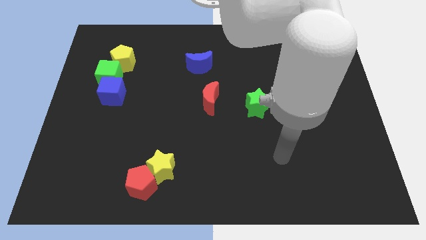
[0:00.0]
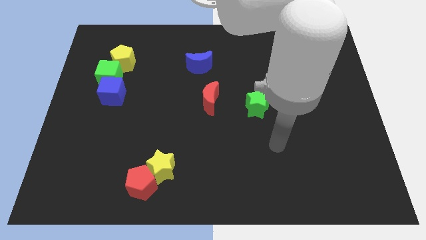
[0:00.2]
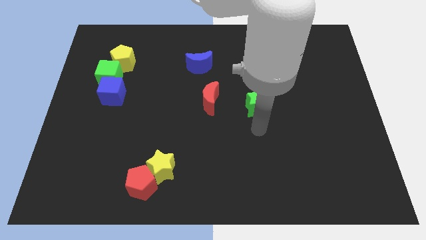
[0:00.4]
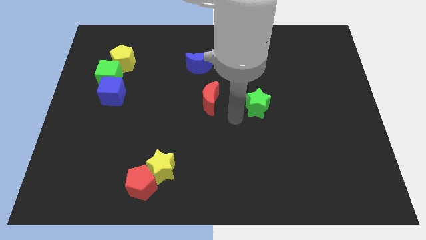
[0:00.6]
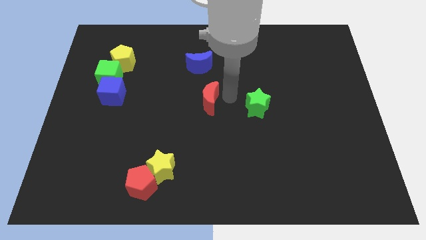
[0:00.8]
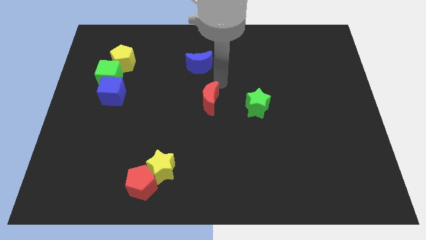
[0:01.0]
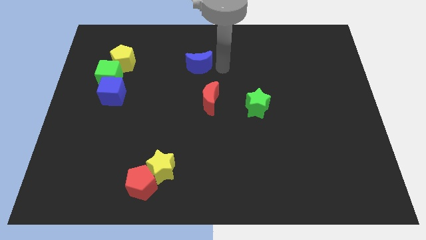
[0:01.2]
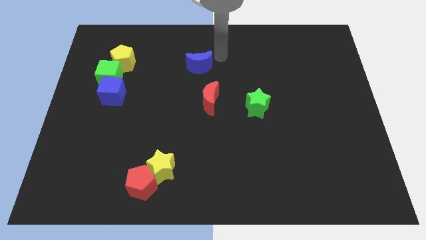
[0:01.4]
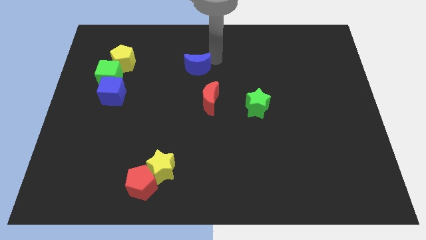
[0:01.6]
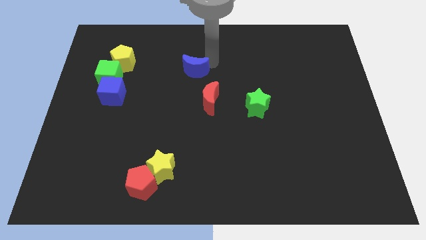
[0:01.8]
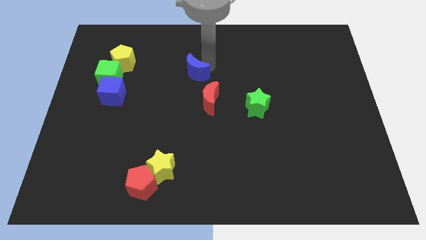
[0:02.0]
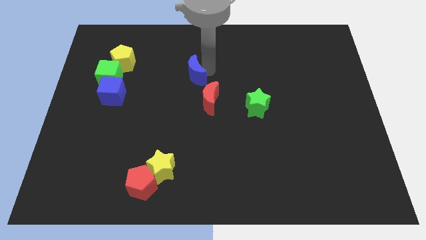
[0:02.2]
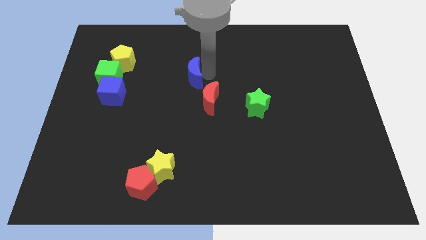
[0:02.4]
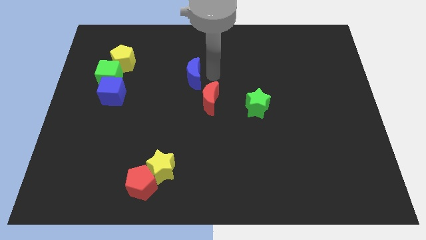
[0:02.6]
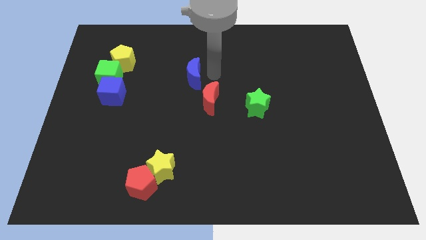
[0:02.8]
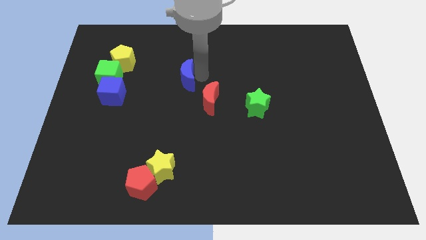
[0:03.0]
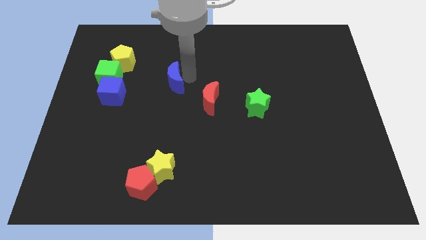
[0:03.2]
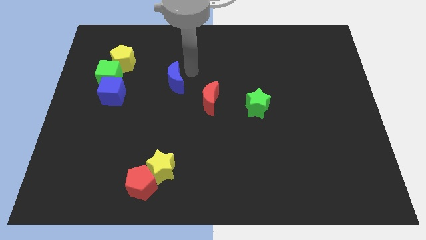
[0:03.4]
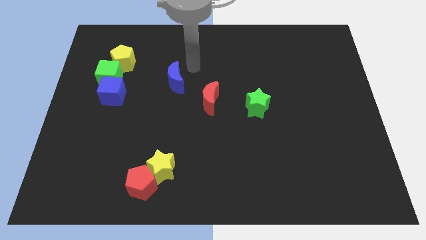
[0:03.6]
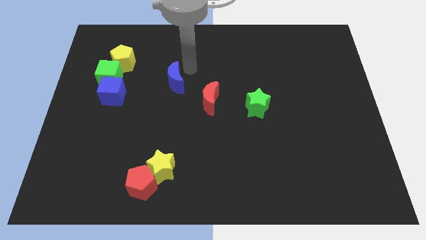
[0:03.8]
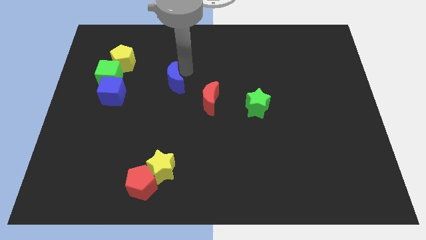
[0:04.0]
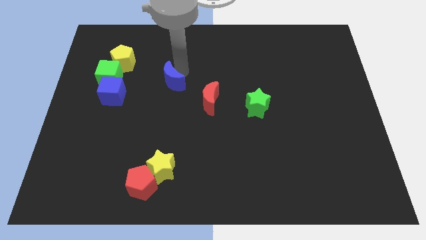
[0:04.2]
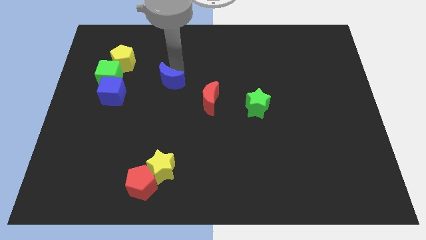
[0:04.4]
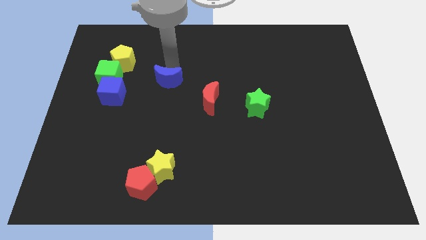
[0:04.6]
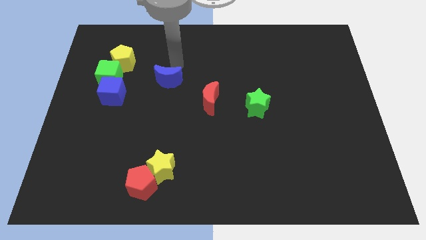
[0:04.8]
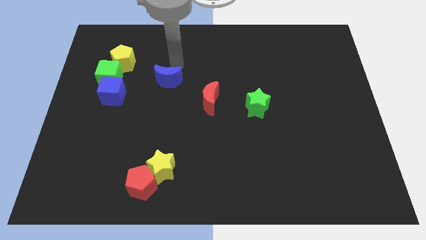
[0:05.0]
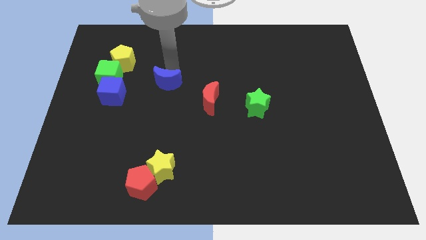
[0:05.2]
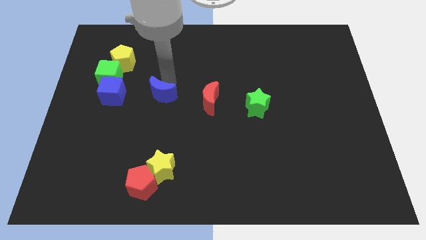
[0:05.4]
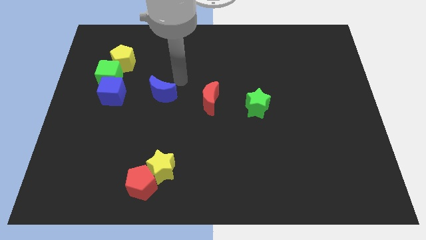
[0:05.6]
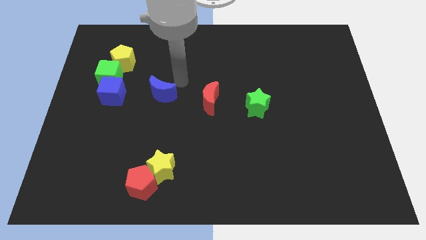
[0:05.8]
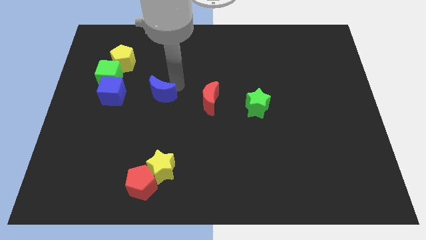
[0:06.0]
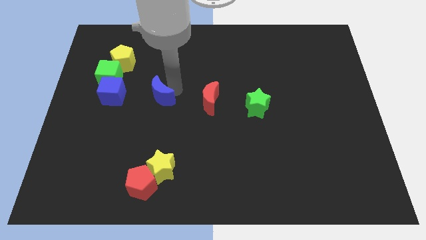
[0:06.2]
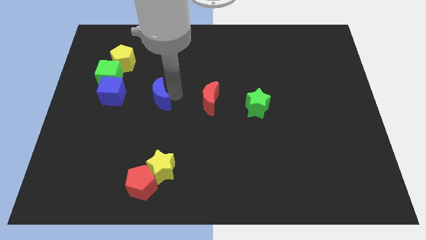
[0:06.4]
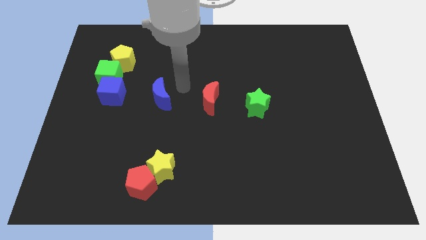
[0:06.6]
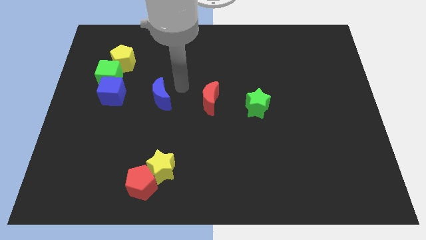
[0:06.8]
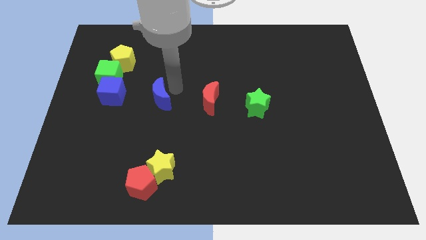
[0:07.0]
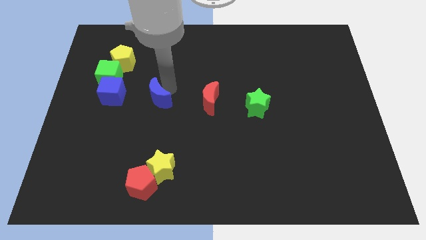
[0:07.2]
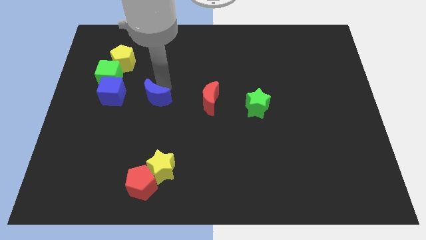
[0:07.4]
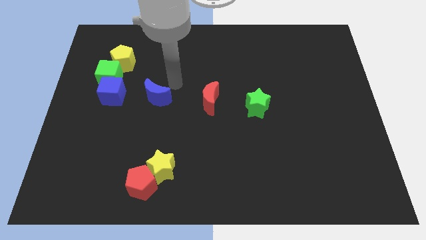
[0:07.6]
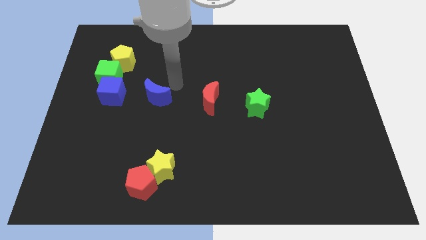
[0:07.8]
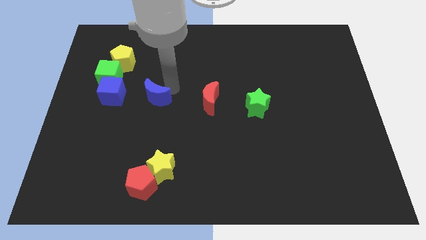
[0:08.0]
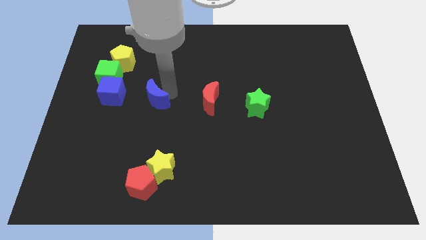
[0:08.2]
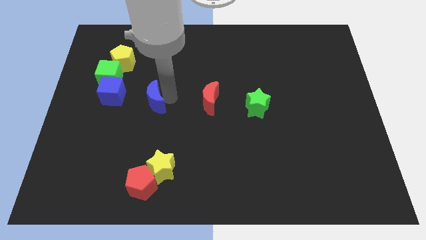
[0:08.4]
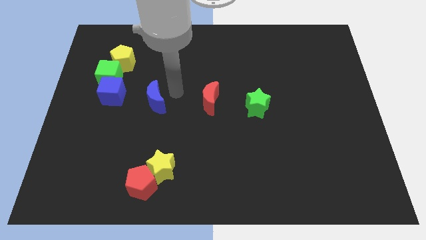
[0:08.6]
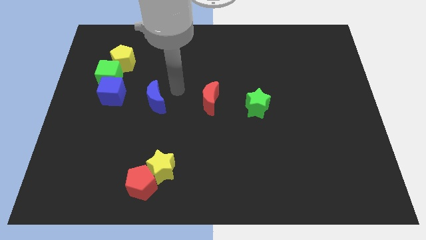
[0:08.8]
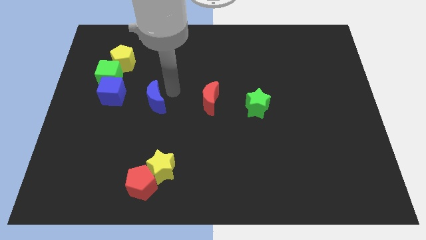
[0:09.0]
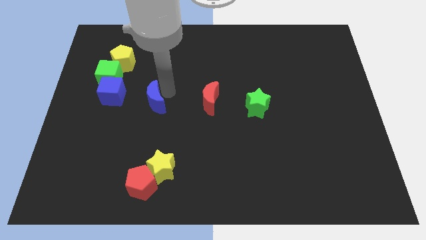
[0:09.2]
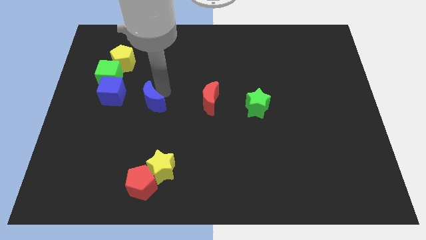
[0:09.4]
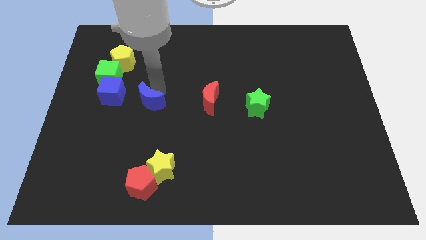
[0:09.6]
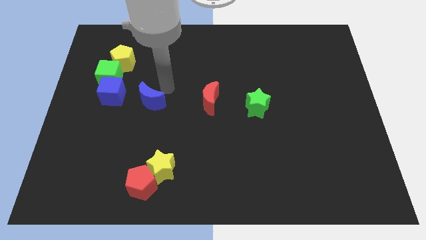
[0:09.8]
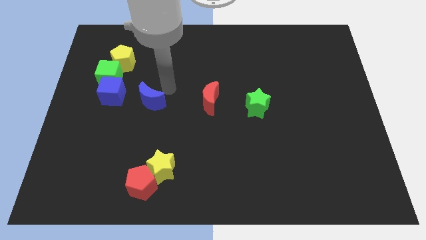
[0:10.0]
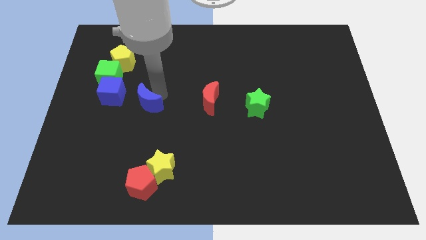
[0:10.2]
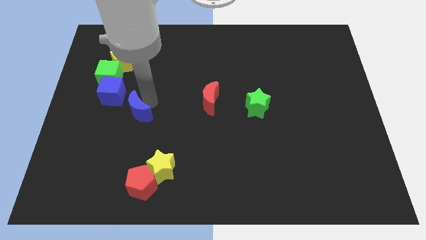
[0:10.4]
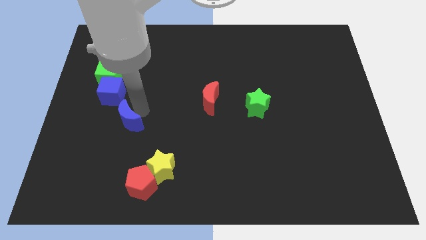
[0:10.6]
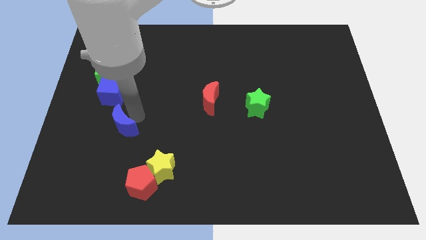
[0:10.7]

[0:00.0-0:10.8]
push the blue moon to the bottom side of the blue cube

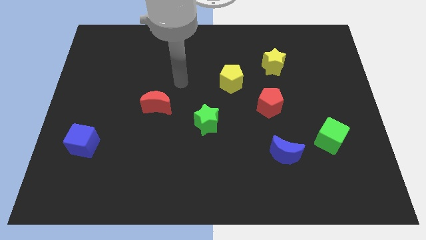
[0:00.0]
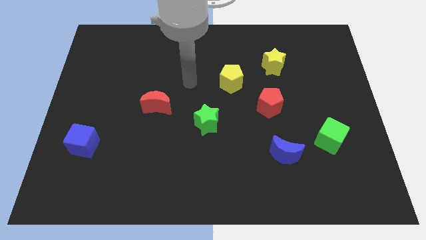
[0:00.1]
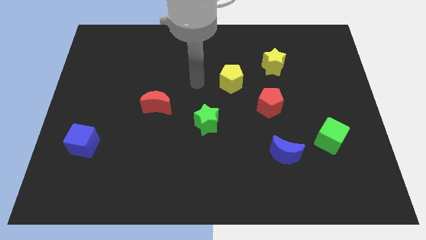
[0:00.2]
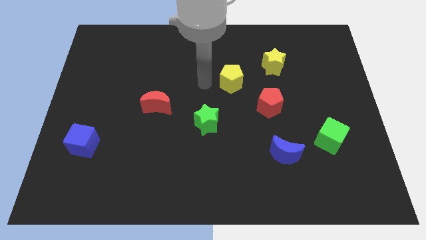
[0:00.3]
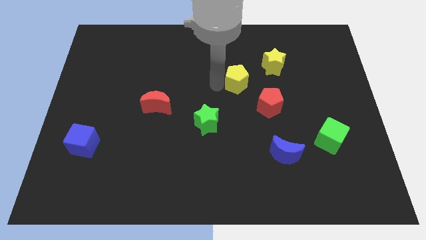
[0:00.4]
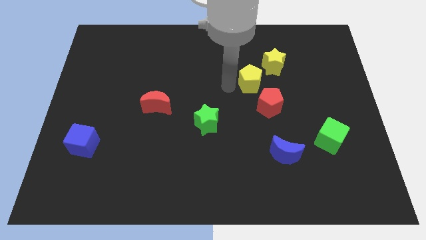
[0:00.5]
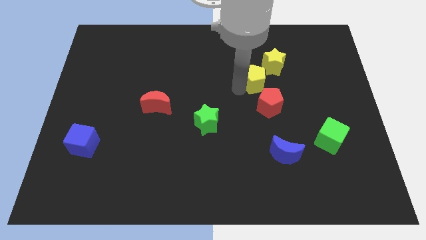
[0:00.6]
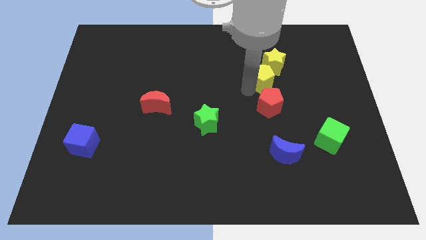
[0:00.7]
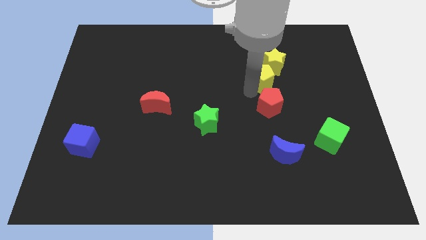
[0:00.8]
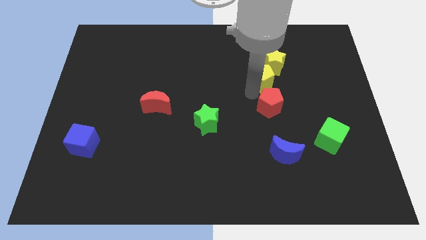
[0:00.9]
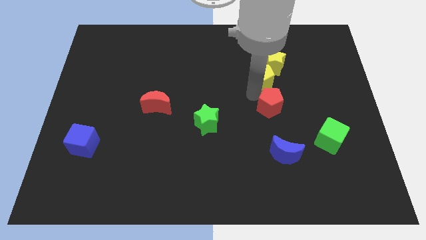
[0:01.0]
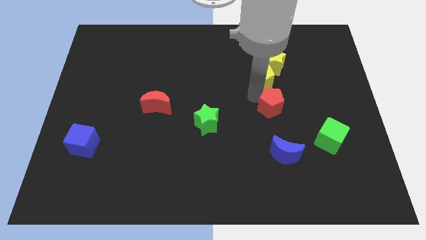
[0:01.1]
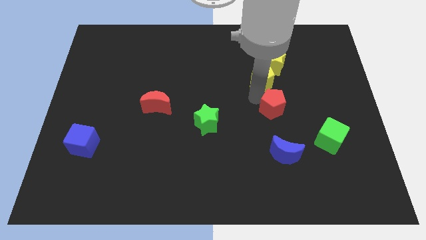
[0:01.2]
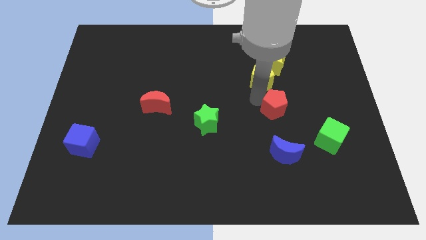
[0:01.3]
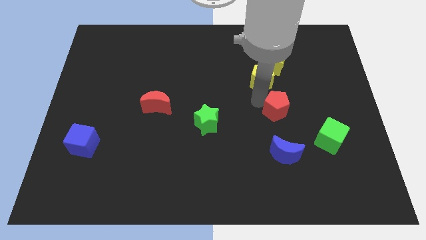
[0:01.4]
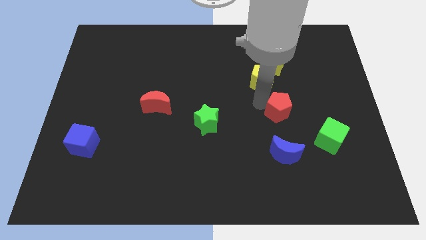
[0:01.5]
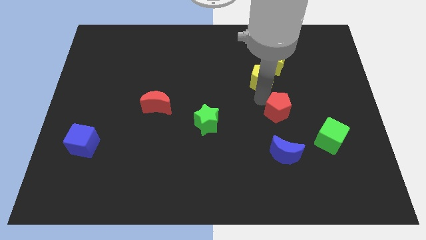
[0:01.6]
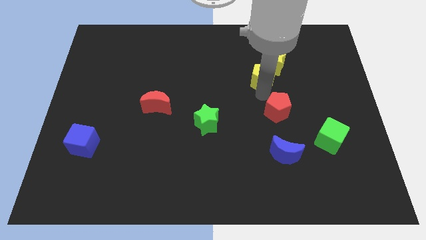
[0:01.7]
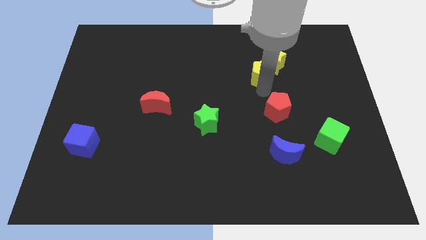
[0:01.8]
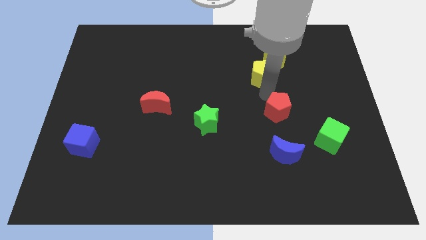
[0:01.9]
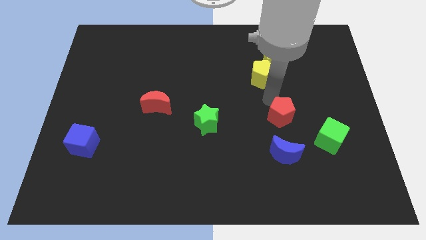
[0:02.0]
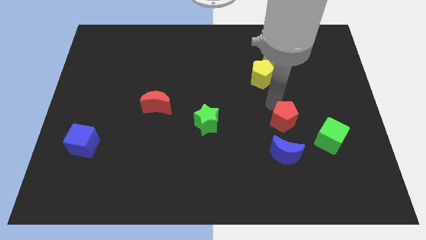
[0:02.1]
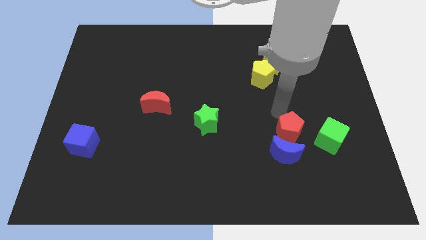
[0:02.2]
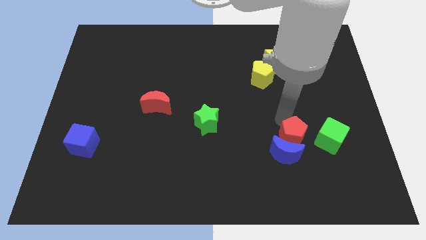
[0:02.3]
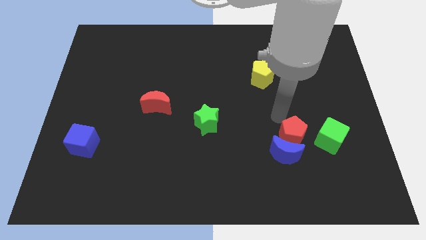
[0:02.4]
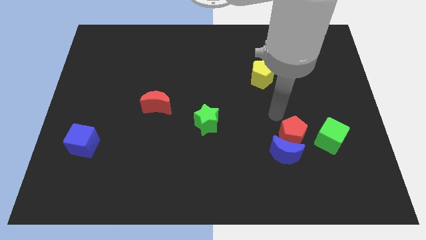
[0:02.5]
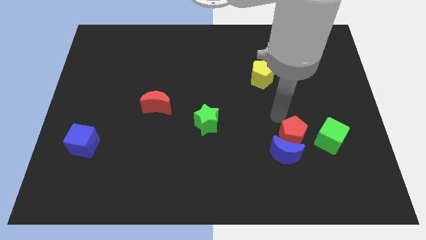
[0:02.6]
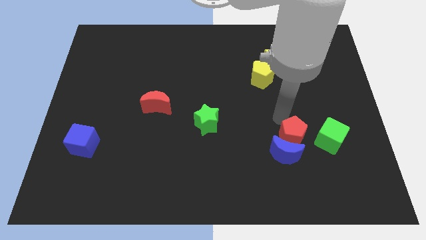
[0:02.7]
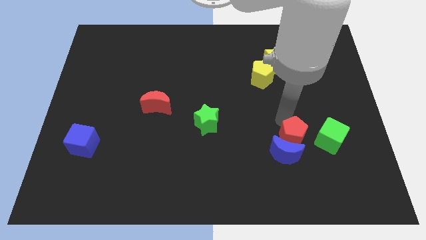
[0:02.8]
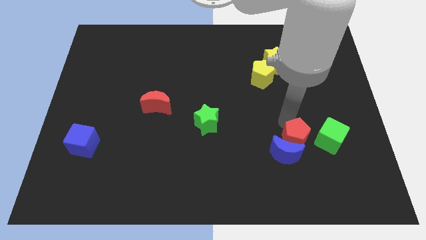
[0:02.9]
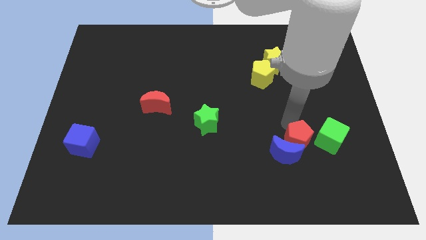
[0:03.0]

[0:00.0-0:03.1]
put the red pentagon to the bottom left of the green cube
